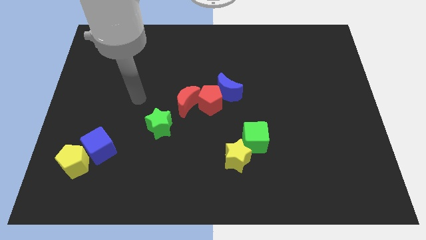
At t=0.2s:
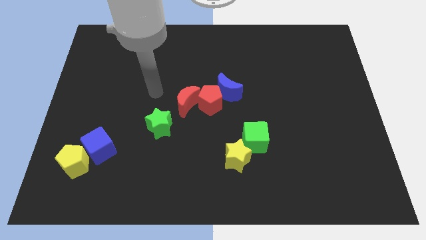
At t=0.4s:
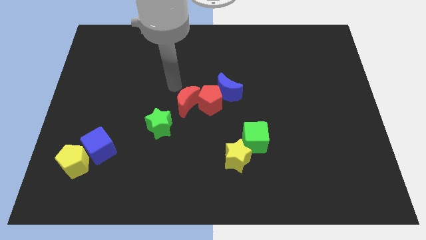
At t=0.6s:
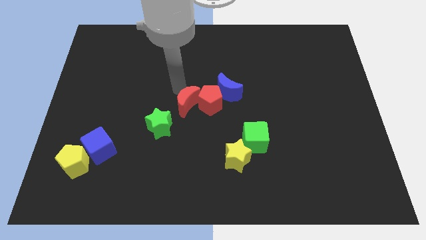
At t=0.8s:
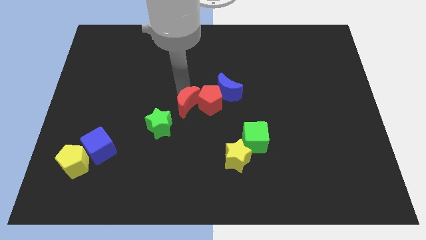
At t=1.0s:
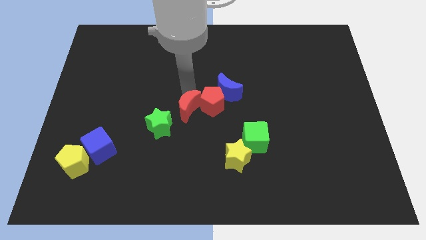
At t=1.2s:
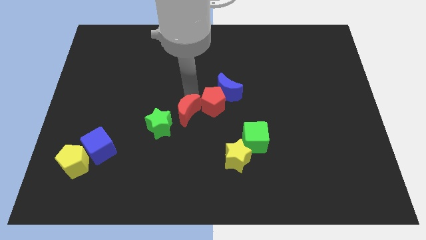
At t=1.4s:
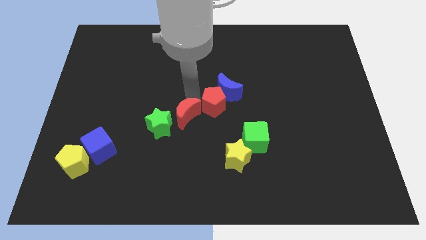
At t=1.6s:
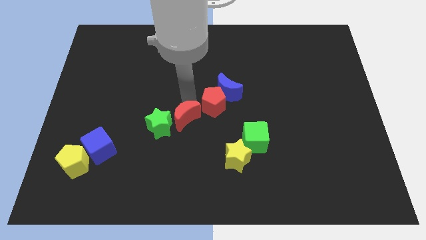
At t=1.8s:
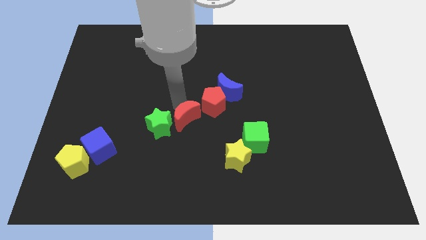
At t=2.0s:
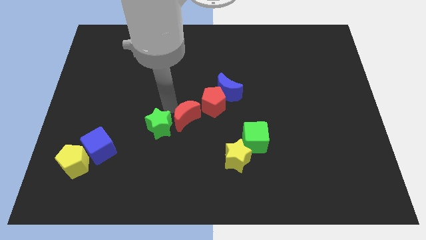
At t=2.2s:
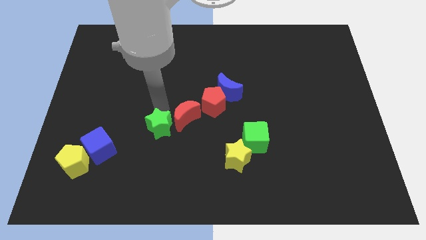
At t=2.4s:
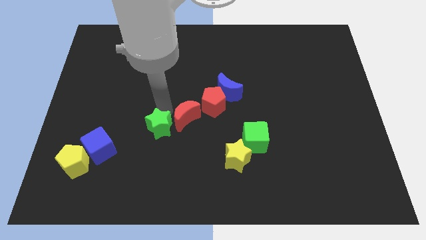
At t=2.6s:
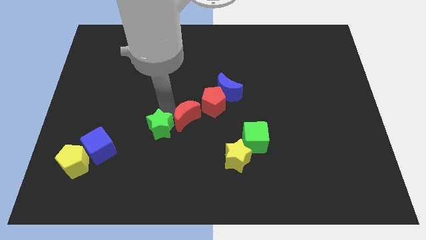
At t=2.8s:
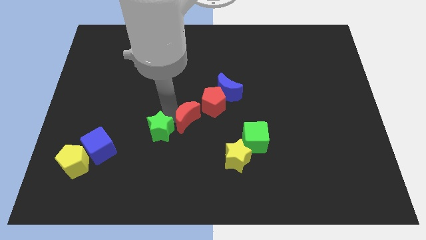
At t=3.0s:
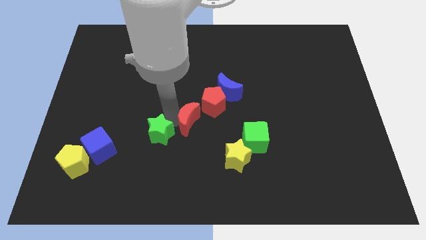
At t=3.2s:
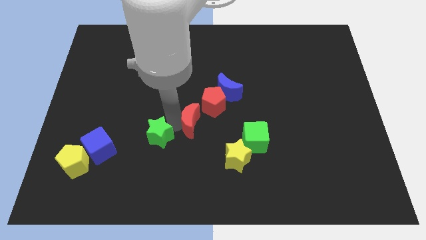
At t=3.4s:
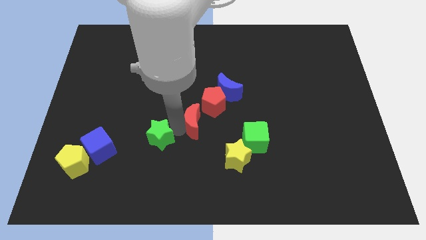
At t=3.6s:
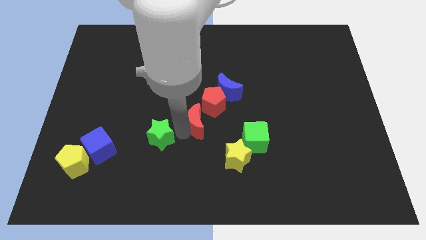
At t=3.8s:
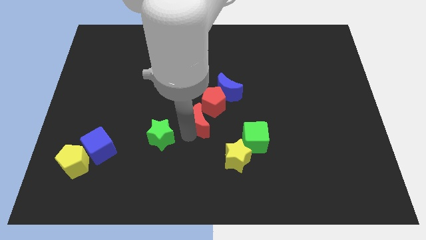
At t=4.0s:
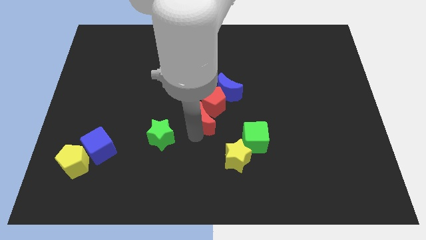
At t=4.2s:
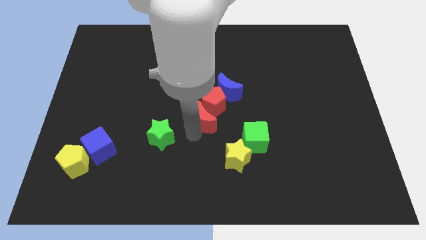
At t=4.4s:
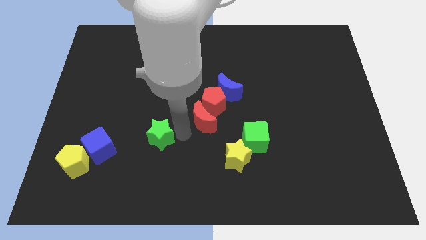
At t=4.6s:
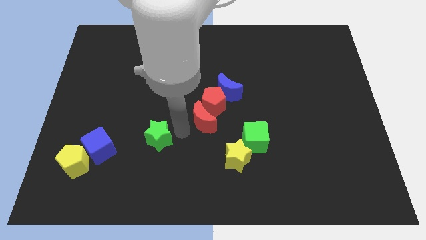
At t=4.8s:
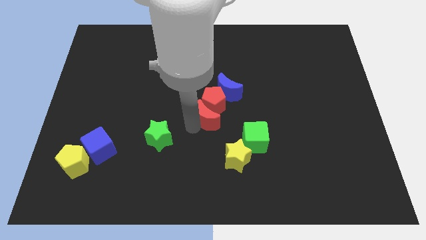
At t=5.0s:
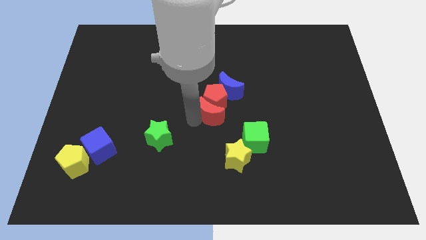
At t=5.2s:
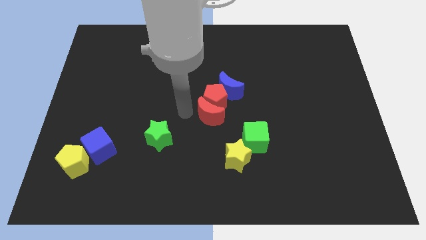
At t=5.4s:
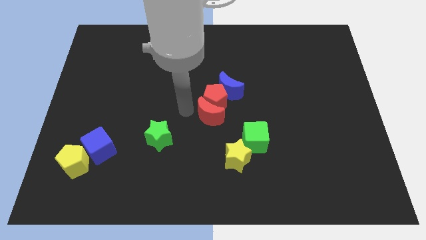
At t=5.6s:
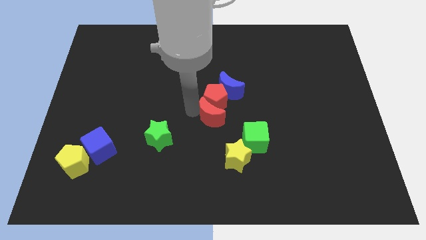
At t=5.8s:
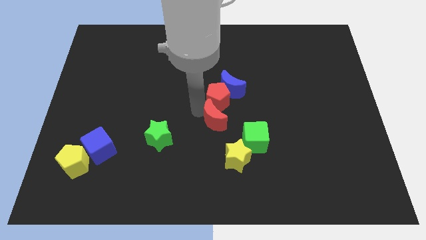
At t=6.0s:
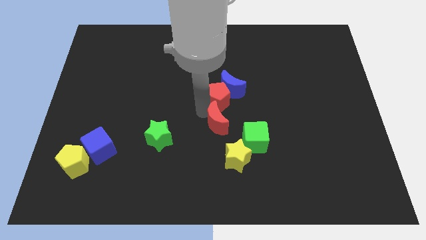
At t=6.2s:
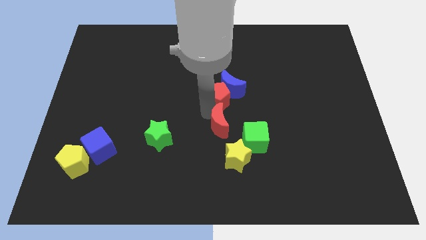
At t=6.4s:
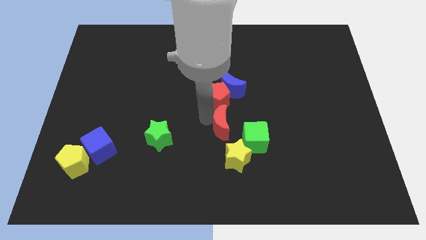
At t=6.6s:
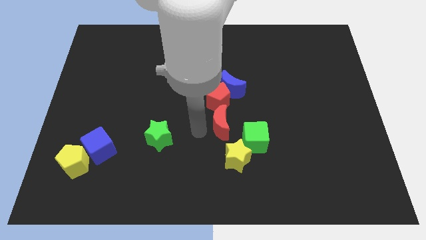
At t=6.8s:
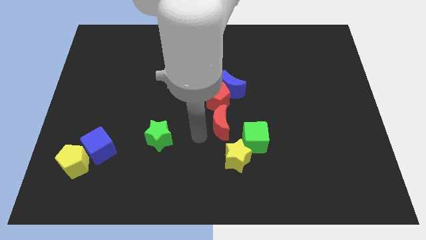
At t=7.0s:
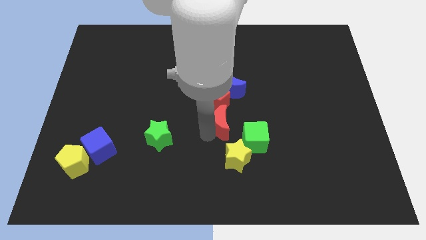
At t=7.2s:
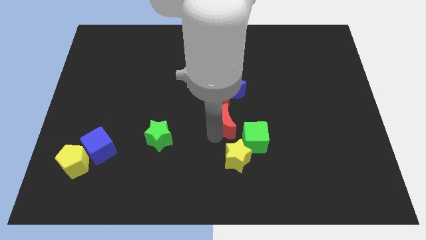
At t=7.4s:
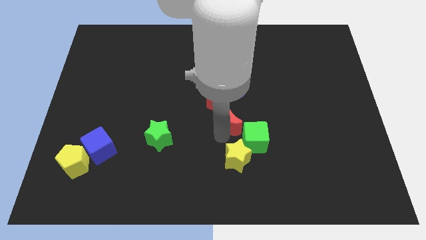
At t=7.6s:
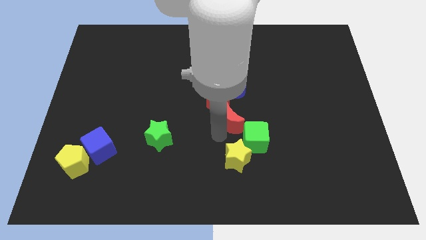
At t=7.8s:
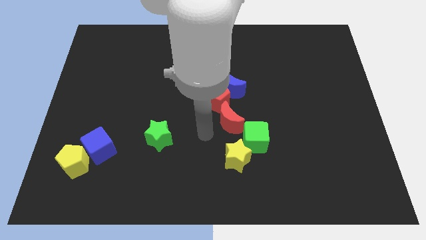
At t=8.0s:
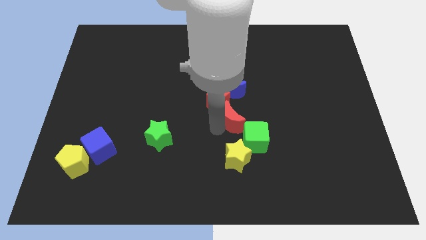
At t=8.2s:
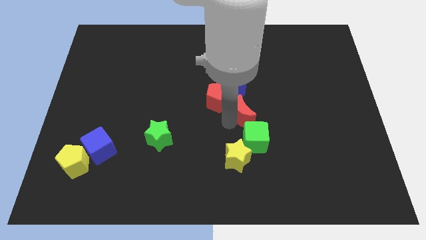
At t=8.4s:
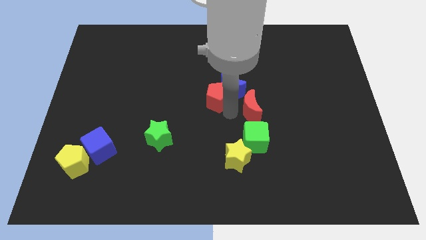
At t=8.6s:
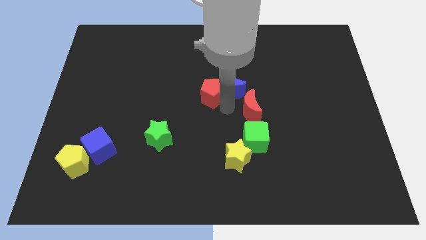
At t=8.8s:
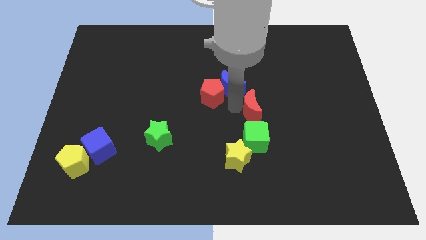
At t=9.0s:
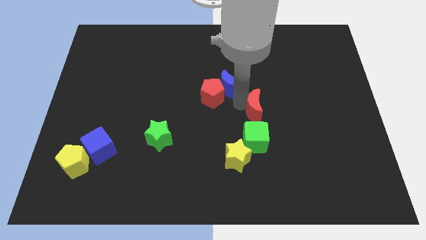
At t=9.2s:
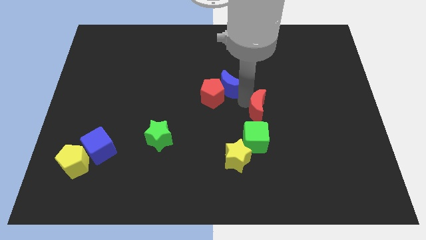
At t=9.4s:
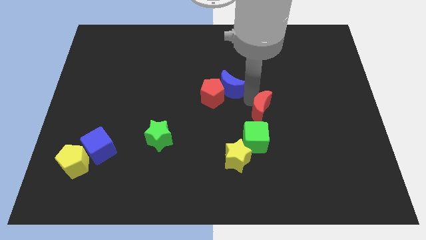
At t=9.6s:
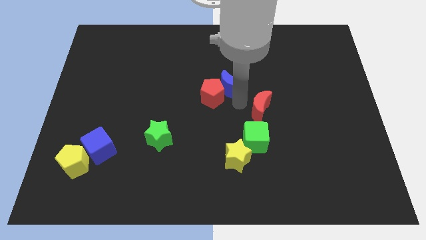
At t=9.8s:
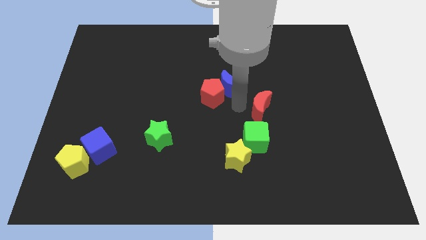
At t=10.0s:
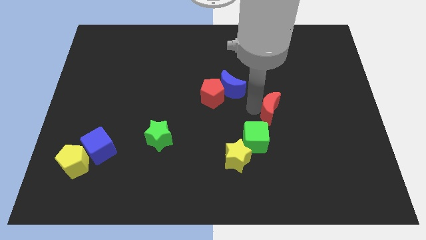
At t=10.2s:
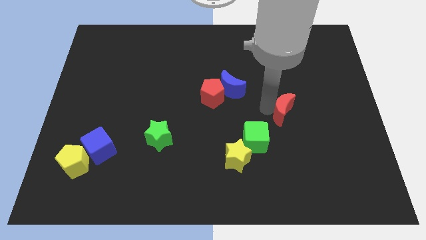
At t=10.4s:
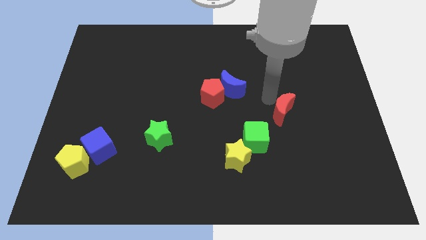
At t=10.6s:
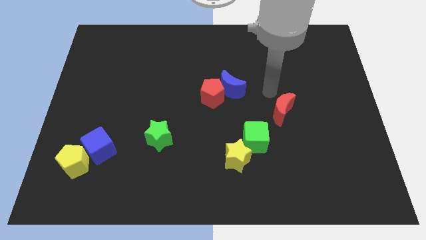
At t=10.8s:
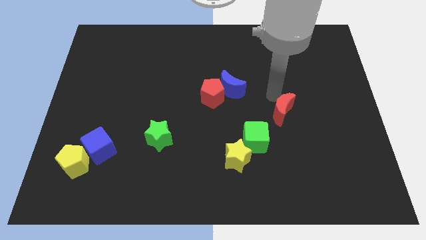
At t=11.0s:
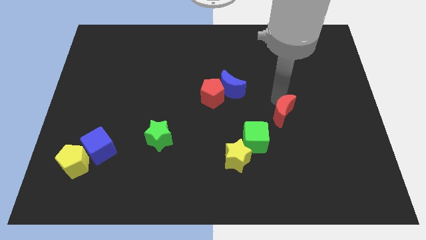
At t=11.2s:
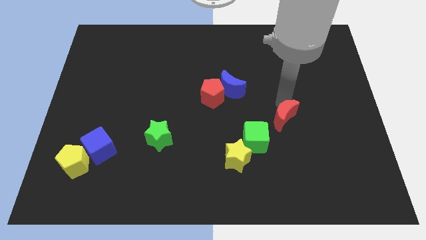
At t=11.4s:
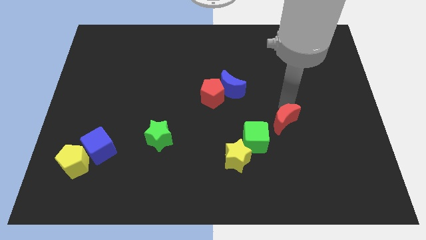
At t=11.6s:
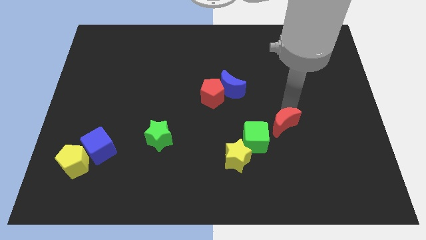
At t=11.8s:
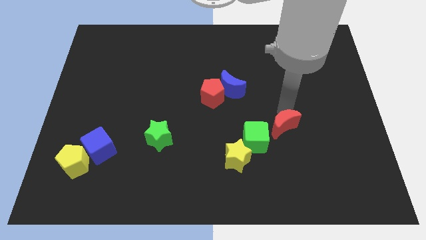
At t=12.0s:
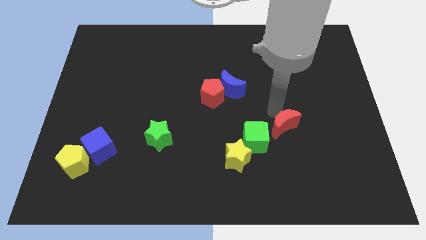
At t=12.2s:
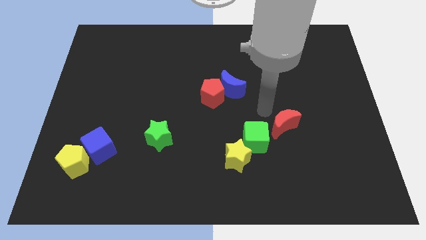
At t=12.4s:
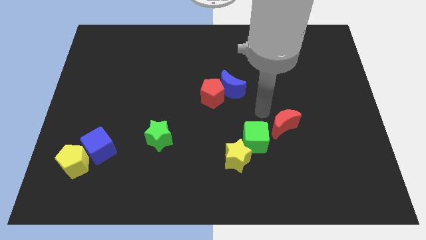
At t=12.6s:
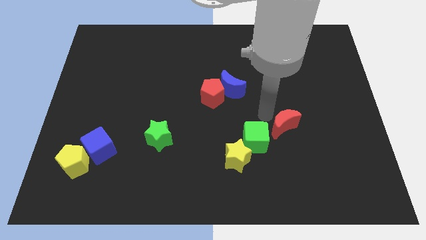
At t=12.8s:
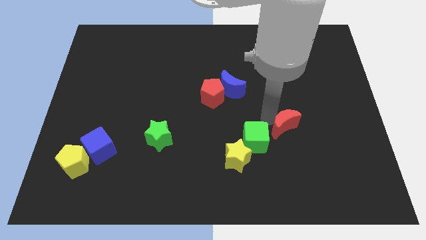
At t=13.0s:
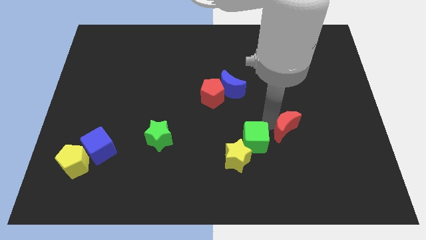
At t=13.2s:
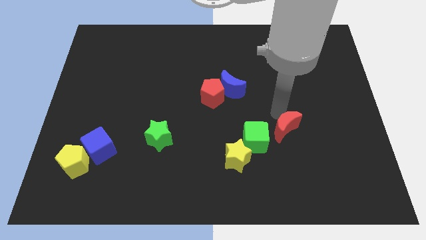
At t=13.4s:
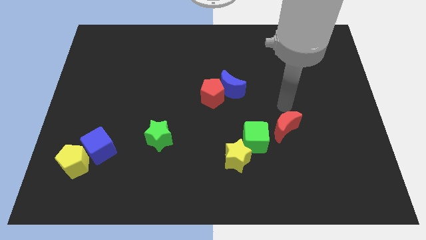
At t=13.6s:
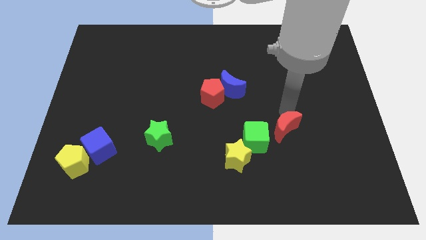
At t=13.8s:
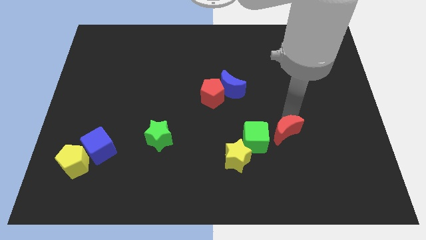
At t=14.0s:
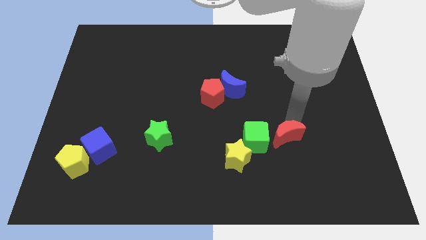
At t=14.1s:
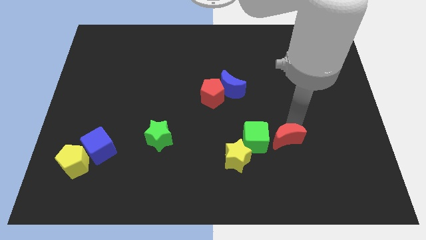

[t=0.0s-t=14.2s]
push the red moon to the right side of the yellow star

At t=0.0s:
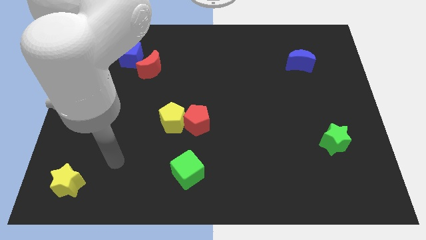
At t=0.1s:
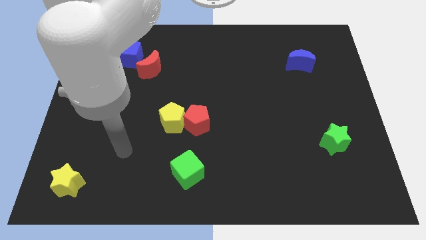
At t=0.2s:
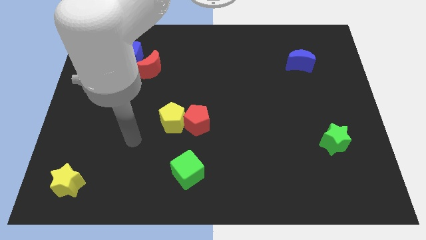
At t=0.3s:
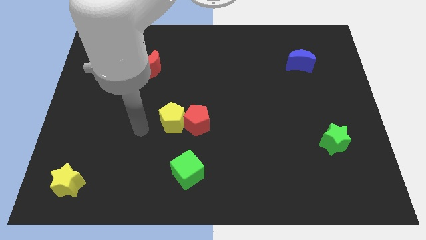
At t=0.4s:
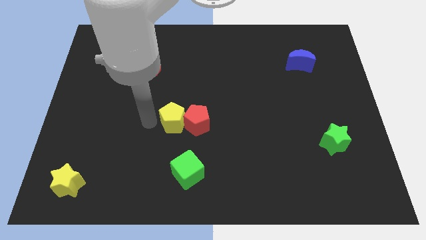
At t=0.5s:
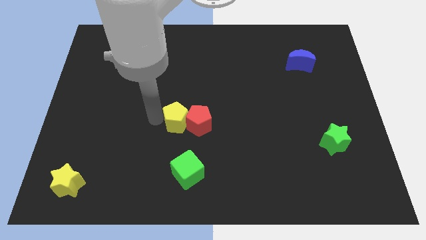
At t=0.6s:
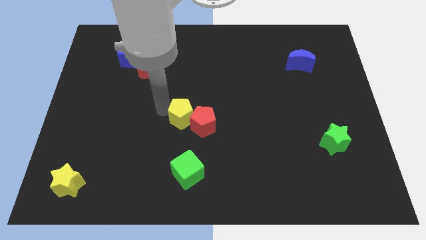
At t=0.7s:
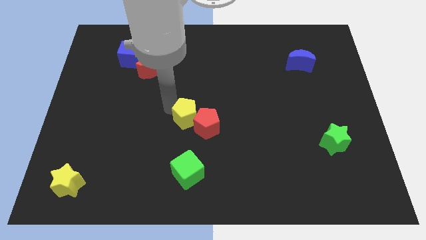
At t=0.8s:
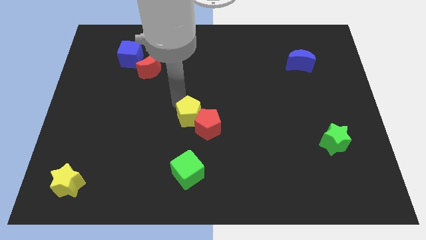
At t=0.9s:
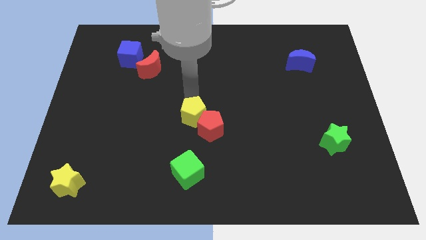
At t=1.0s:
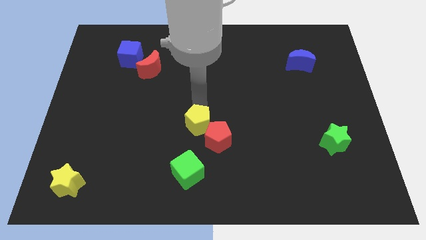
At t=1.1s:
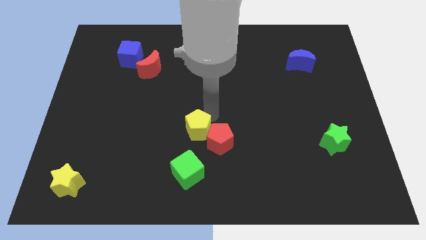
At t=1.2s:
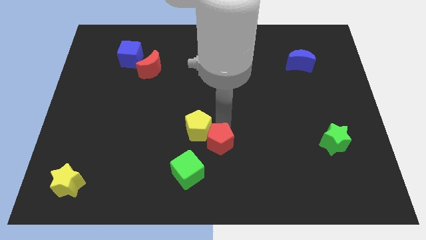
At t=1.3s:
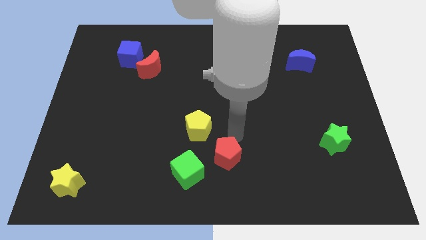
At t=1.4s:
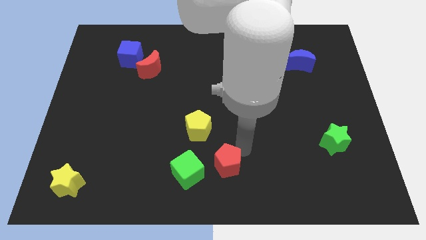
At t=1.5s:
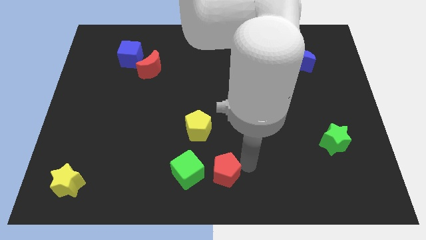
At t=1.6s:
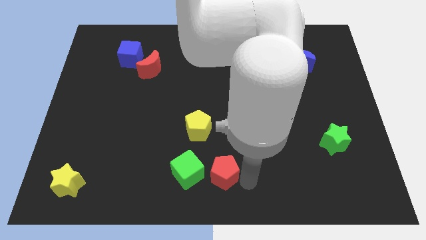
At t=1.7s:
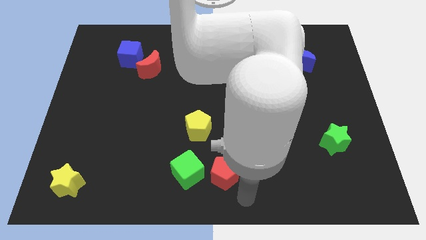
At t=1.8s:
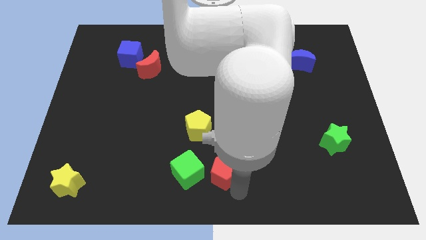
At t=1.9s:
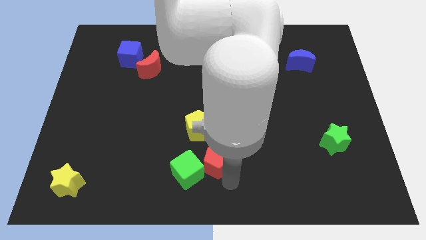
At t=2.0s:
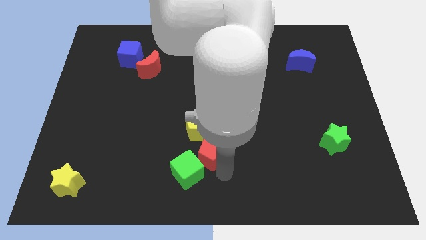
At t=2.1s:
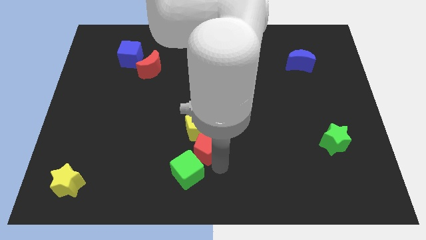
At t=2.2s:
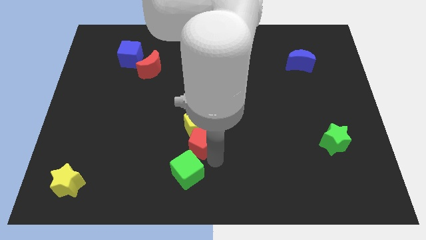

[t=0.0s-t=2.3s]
put the red pentagon to the bottom left of the yellow pentagon
